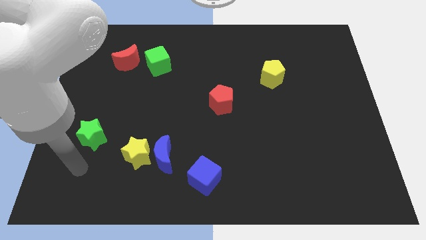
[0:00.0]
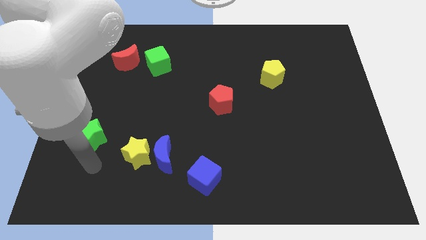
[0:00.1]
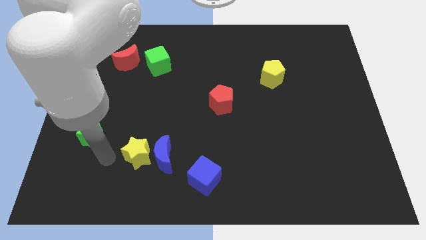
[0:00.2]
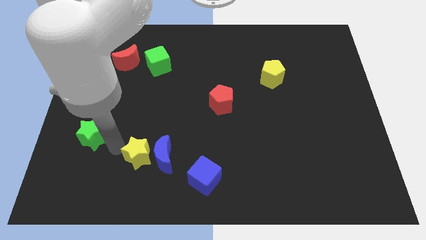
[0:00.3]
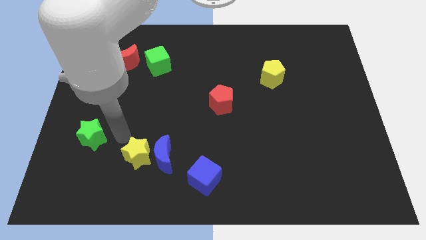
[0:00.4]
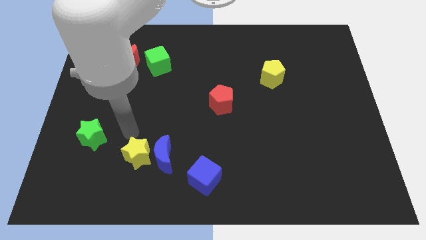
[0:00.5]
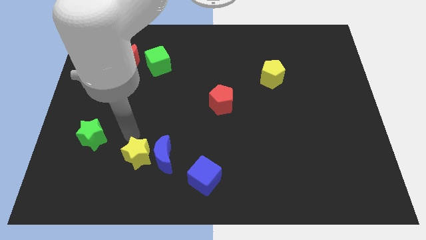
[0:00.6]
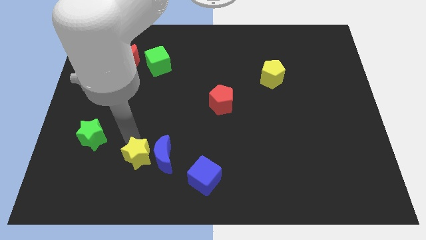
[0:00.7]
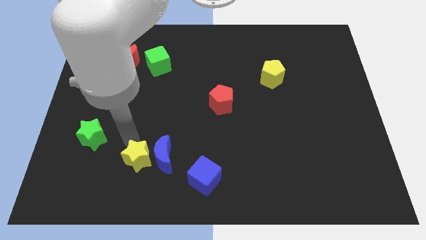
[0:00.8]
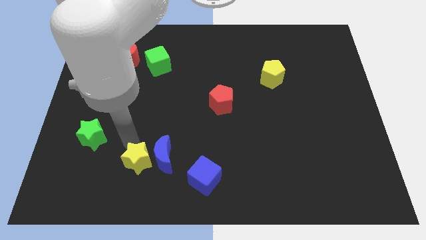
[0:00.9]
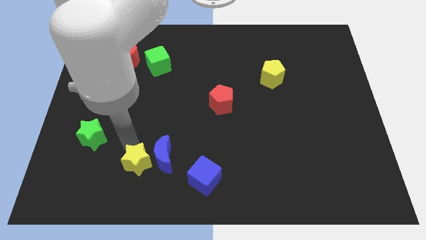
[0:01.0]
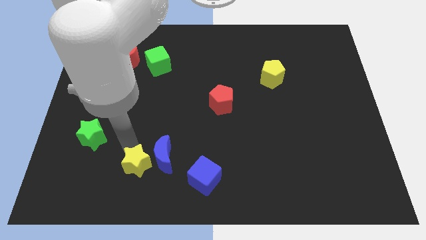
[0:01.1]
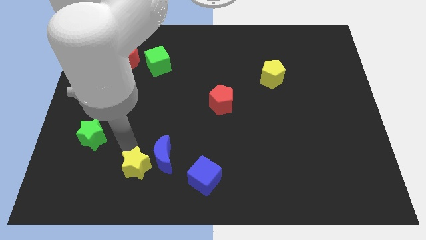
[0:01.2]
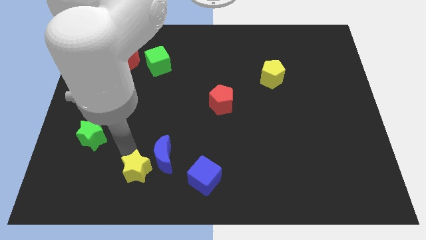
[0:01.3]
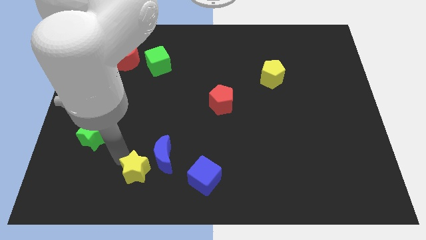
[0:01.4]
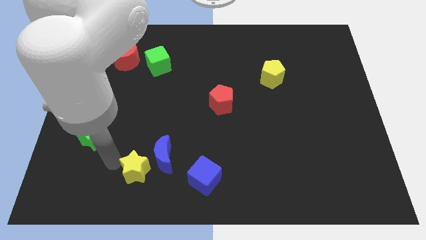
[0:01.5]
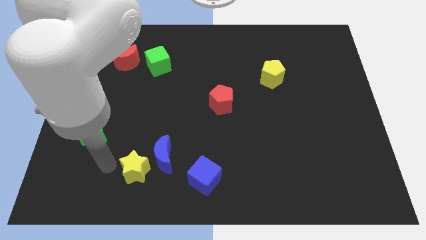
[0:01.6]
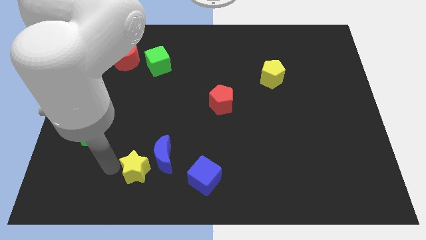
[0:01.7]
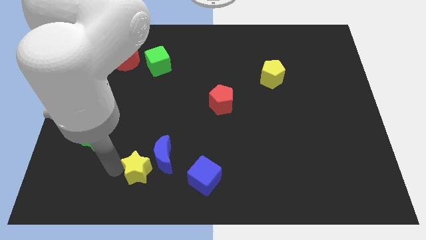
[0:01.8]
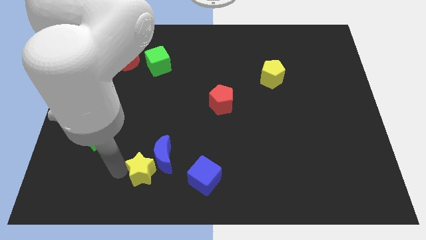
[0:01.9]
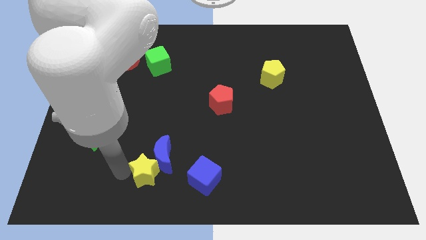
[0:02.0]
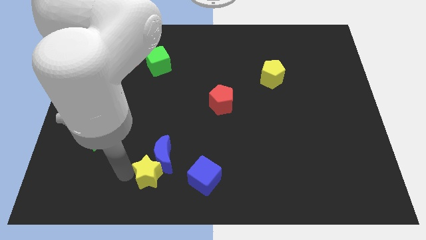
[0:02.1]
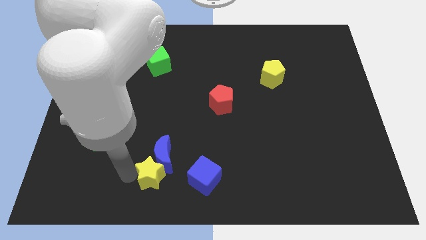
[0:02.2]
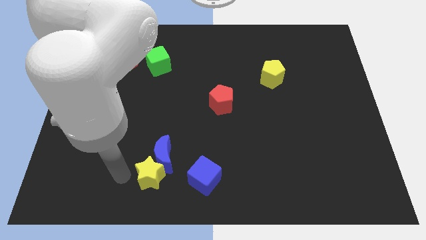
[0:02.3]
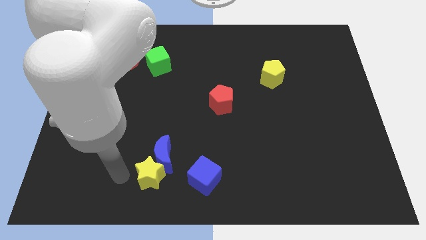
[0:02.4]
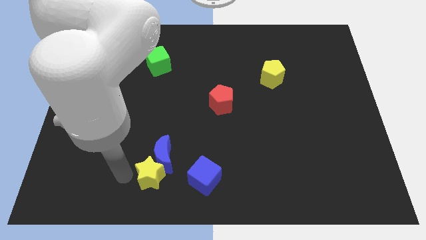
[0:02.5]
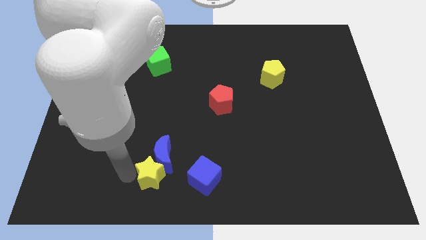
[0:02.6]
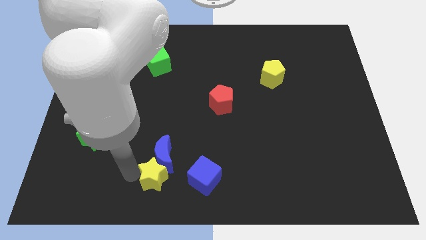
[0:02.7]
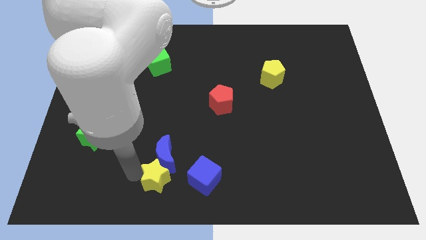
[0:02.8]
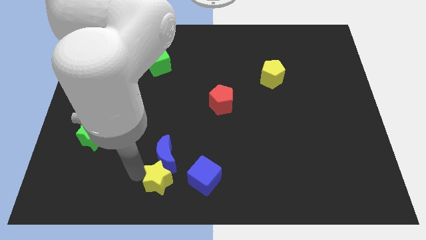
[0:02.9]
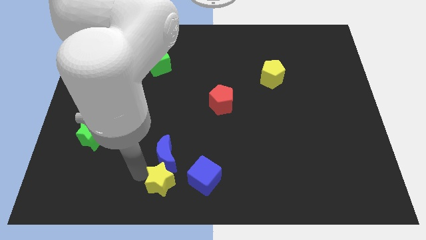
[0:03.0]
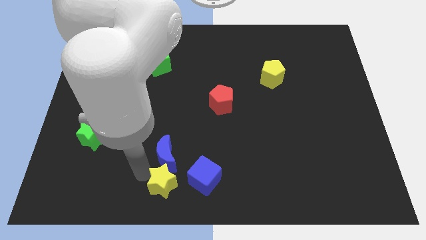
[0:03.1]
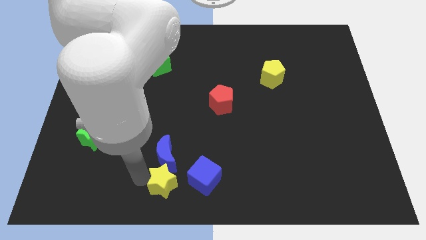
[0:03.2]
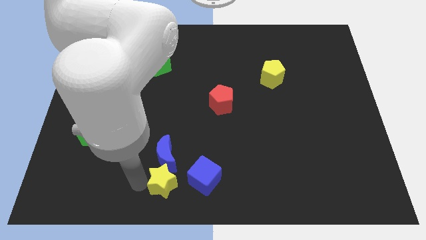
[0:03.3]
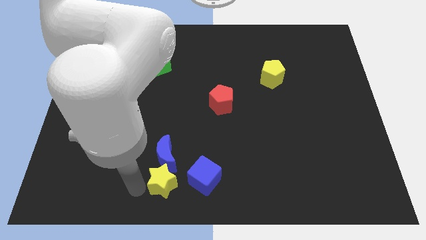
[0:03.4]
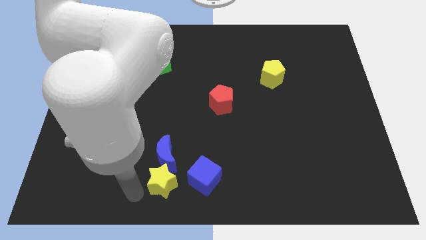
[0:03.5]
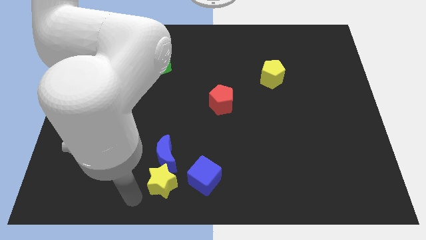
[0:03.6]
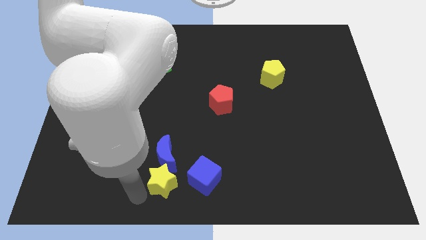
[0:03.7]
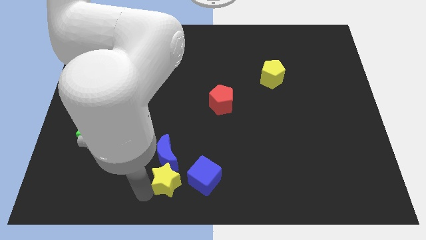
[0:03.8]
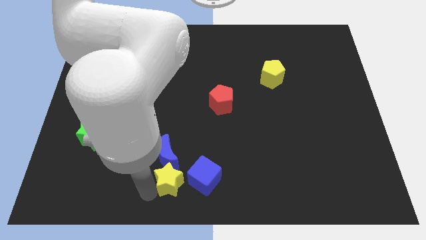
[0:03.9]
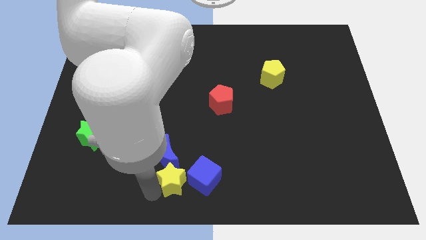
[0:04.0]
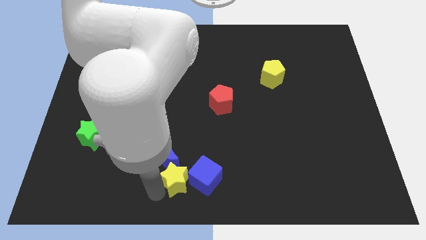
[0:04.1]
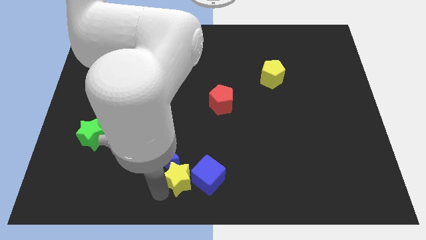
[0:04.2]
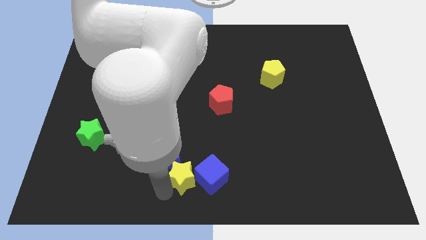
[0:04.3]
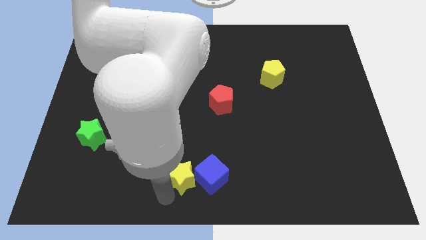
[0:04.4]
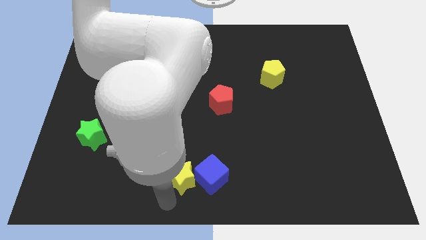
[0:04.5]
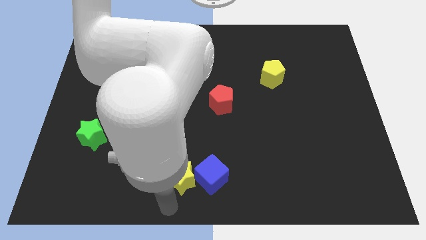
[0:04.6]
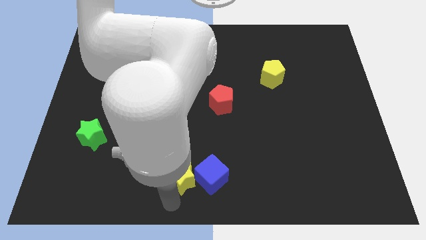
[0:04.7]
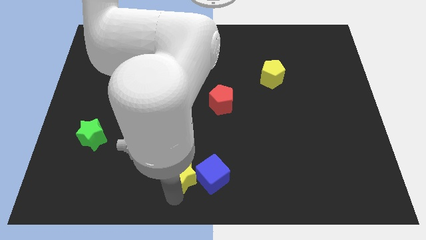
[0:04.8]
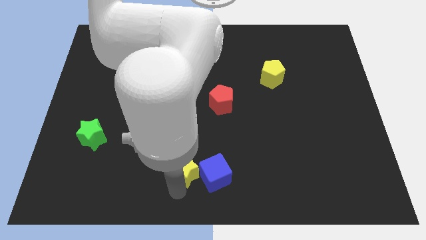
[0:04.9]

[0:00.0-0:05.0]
slide the yellow star just right of the blue moon

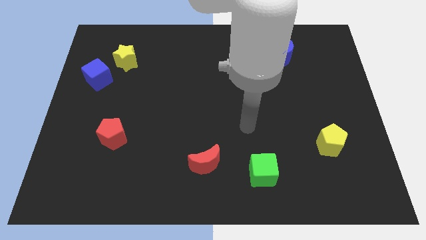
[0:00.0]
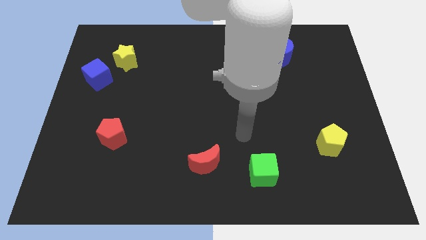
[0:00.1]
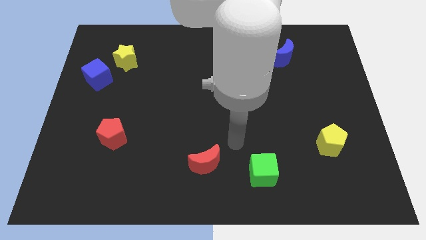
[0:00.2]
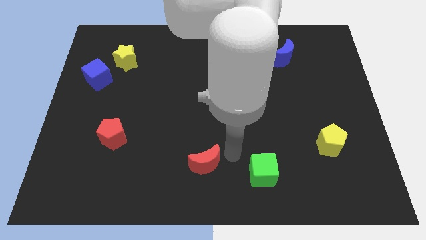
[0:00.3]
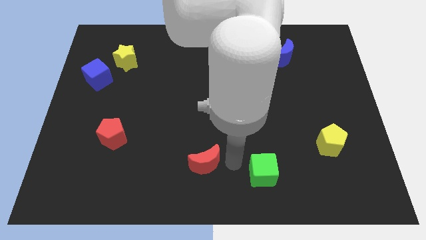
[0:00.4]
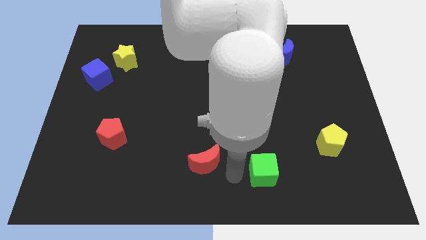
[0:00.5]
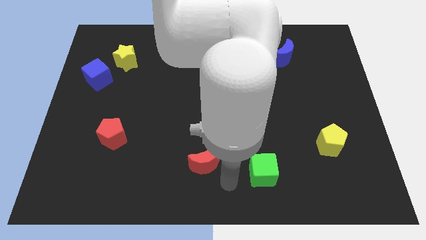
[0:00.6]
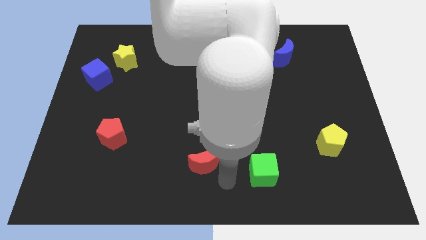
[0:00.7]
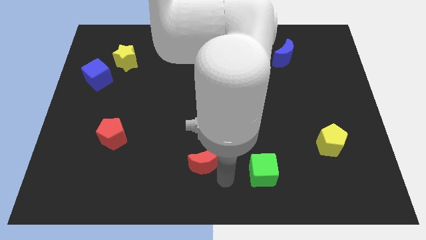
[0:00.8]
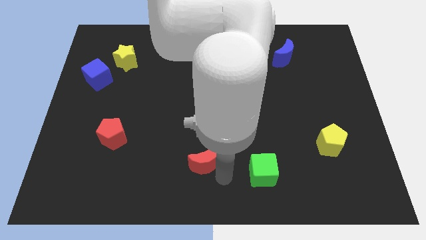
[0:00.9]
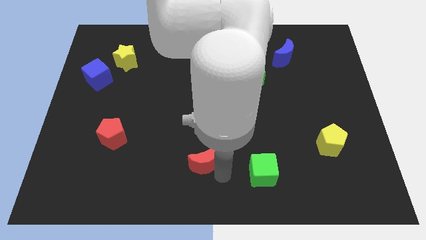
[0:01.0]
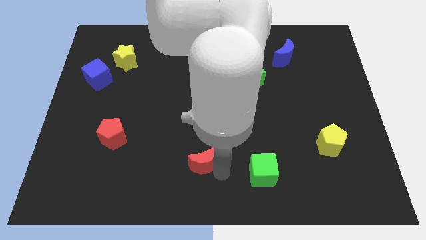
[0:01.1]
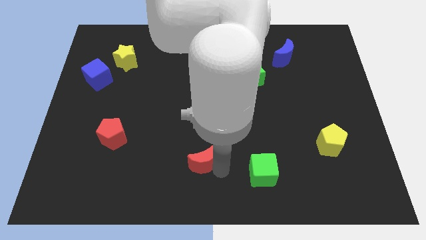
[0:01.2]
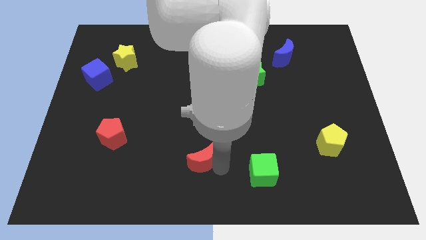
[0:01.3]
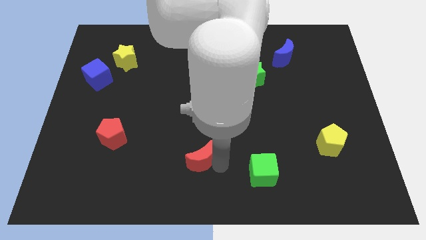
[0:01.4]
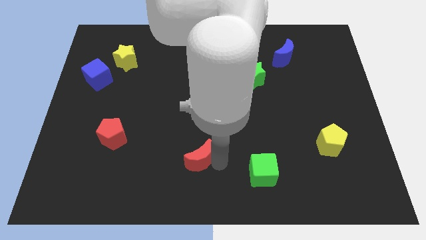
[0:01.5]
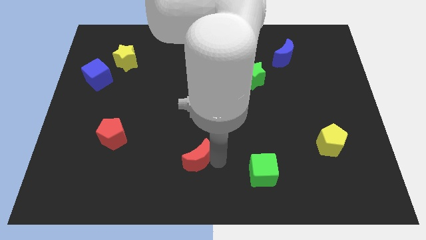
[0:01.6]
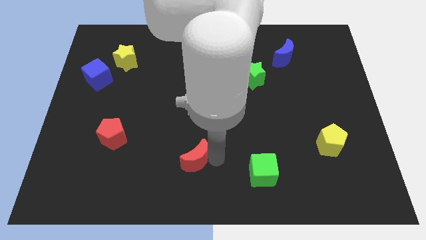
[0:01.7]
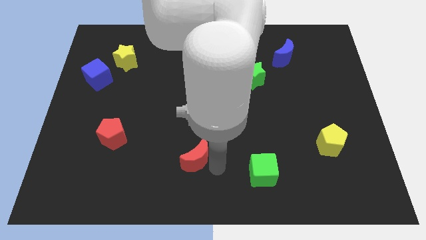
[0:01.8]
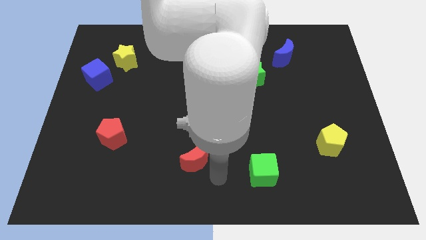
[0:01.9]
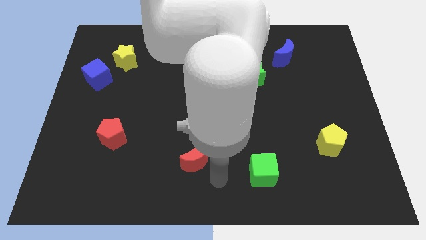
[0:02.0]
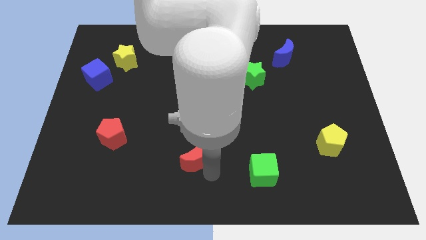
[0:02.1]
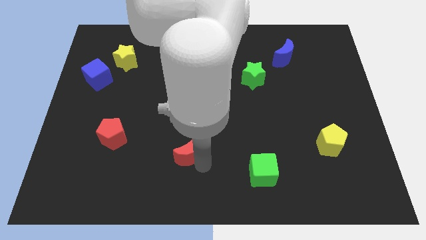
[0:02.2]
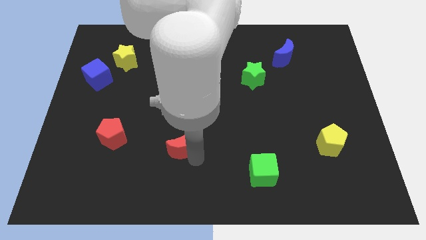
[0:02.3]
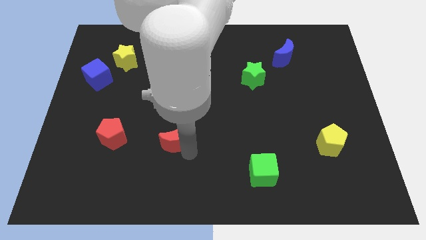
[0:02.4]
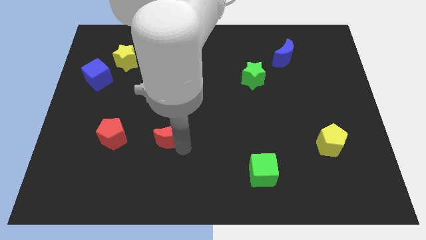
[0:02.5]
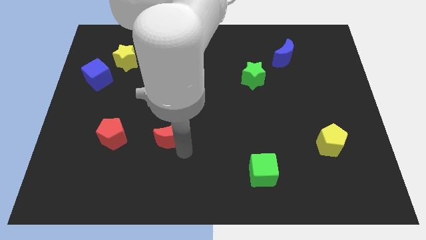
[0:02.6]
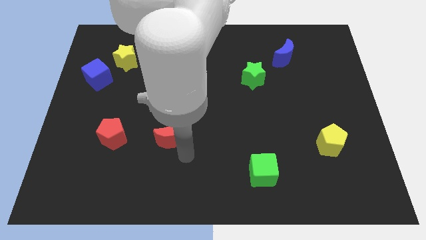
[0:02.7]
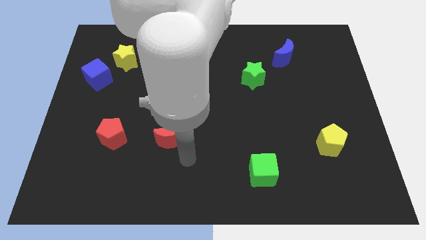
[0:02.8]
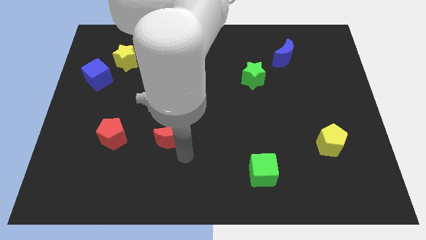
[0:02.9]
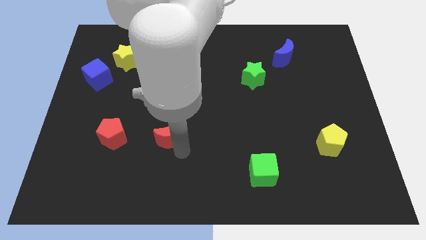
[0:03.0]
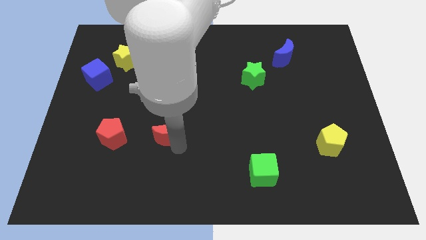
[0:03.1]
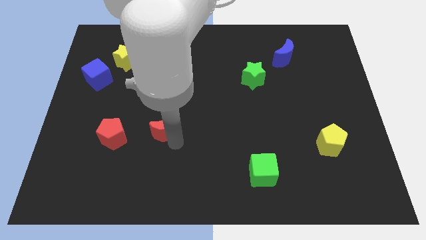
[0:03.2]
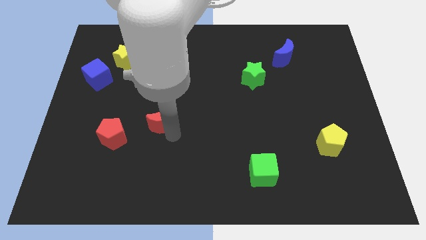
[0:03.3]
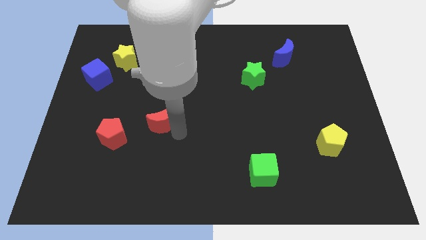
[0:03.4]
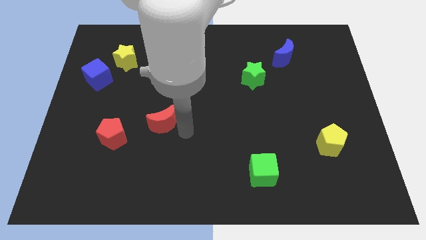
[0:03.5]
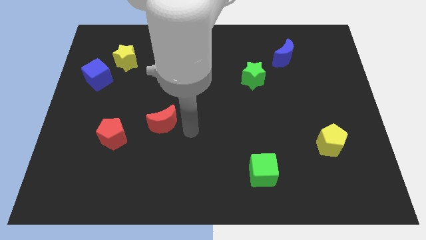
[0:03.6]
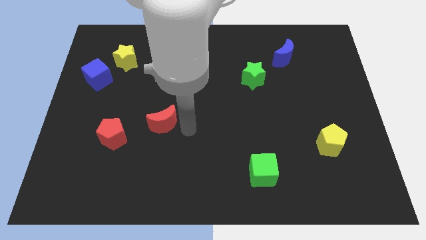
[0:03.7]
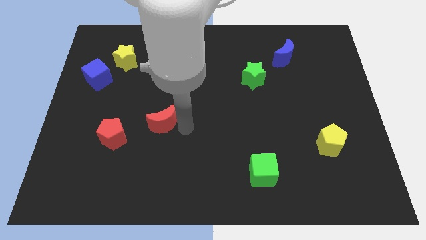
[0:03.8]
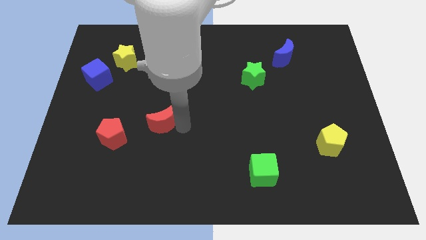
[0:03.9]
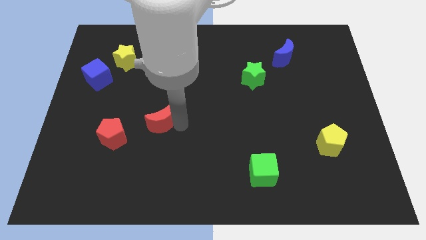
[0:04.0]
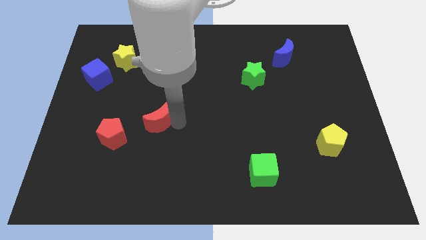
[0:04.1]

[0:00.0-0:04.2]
push the red moon to the top right of the red pentagon
